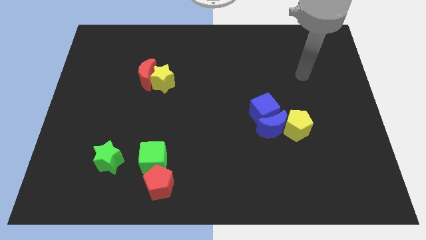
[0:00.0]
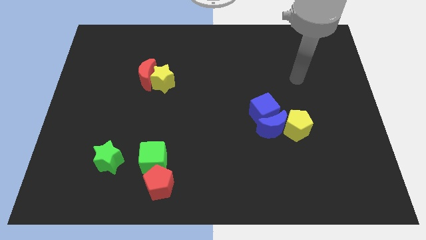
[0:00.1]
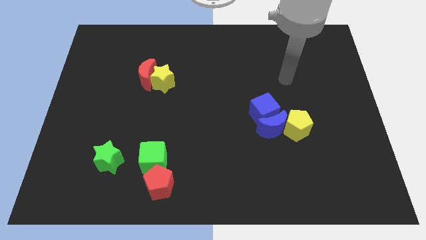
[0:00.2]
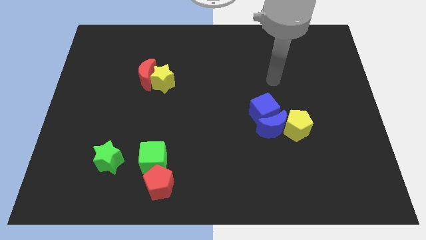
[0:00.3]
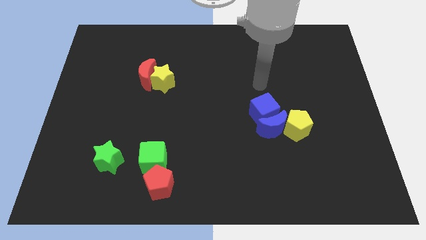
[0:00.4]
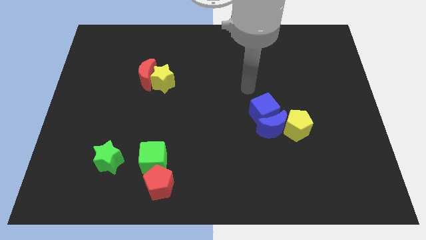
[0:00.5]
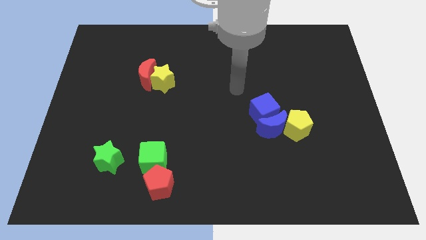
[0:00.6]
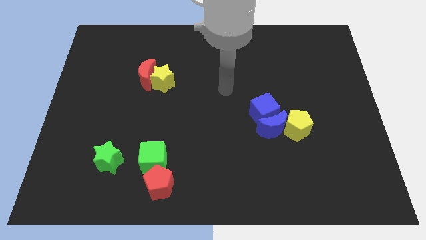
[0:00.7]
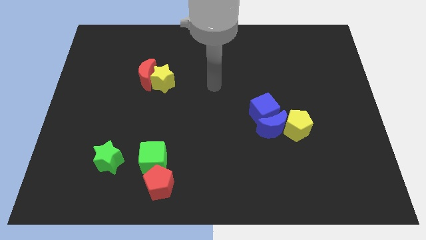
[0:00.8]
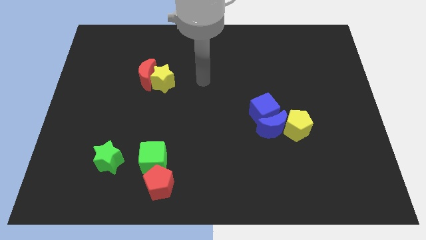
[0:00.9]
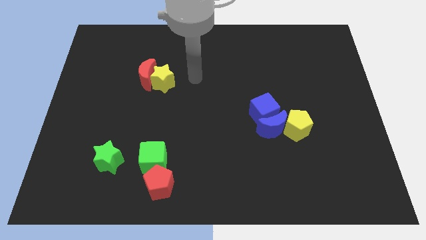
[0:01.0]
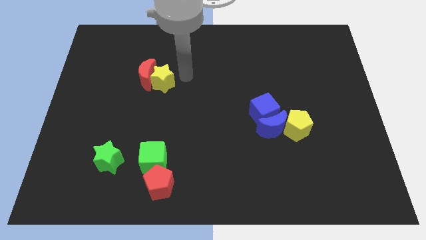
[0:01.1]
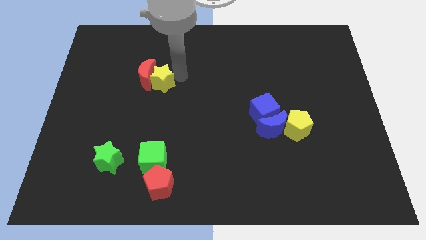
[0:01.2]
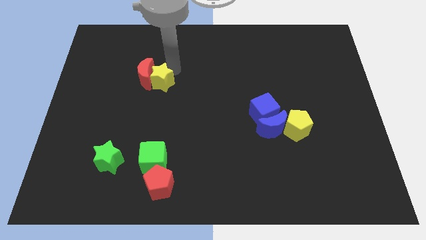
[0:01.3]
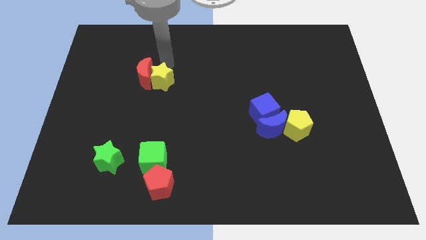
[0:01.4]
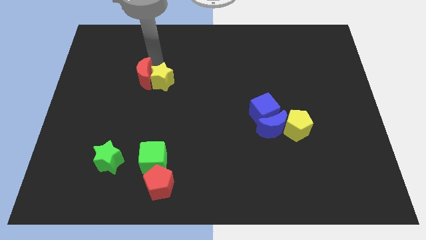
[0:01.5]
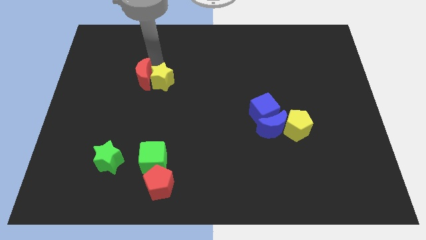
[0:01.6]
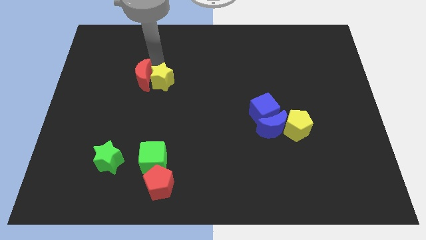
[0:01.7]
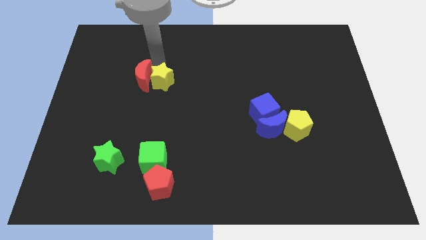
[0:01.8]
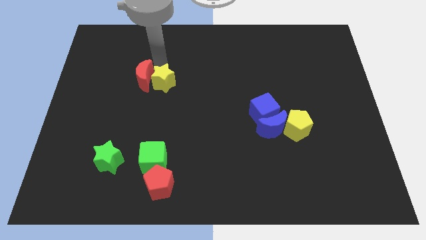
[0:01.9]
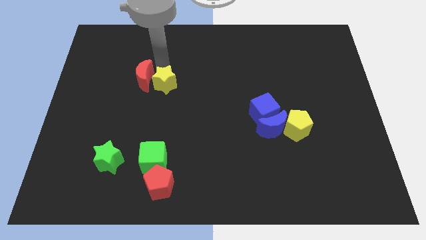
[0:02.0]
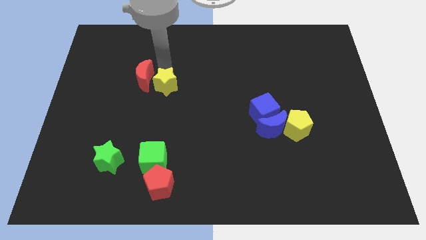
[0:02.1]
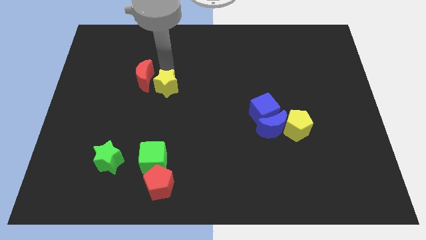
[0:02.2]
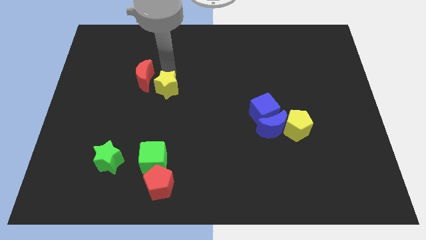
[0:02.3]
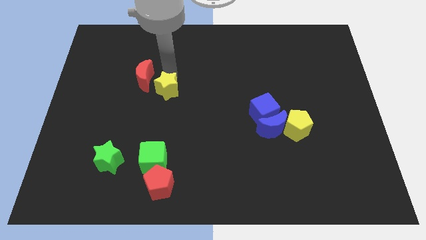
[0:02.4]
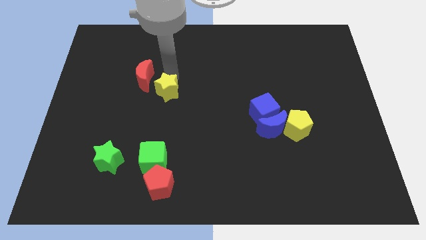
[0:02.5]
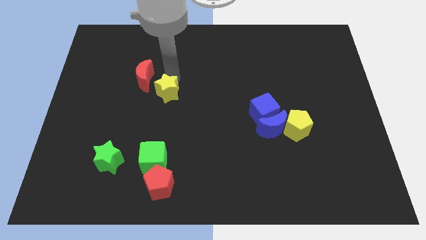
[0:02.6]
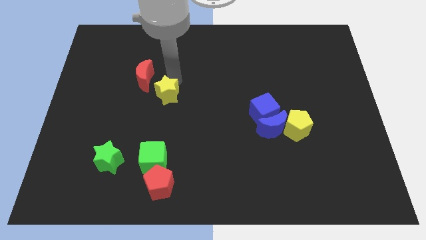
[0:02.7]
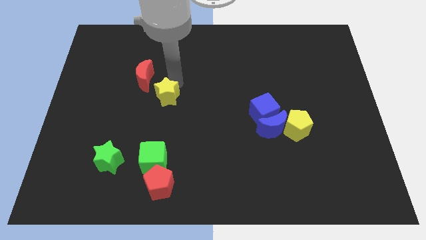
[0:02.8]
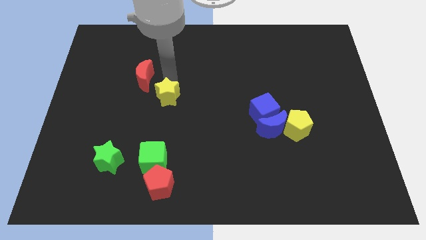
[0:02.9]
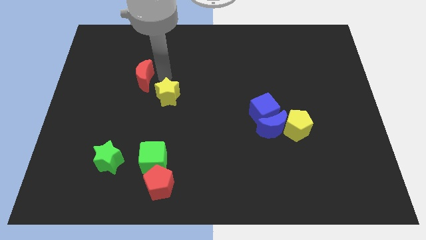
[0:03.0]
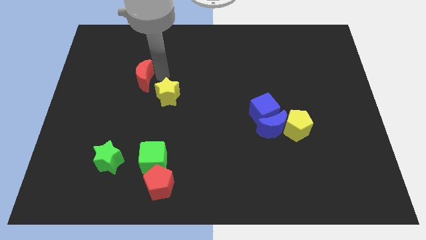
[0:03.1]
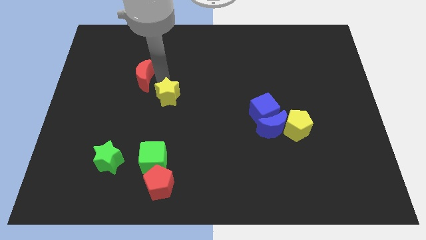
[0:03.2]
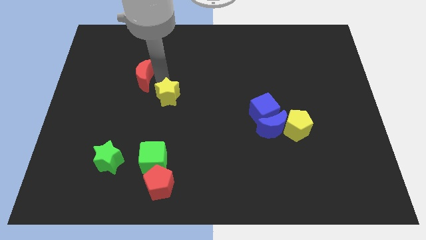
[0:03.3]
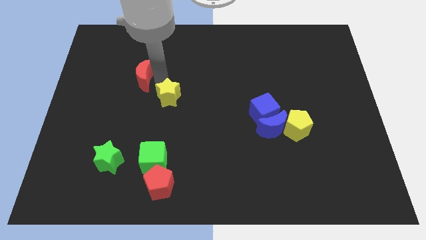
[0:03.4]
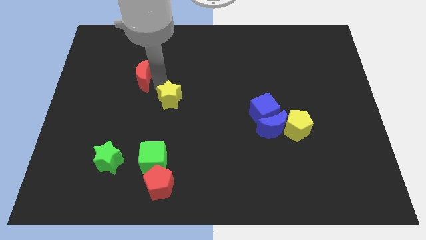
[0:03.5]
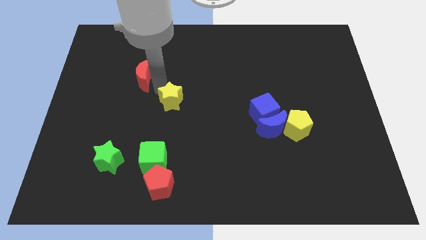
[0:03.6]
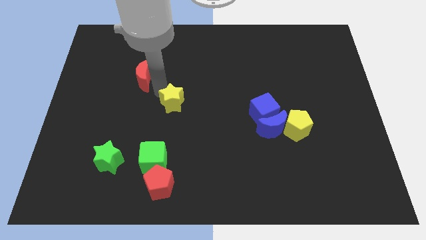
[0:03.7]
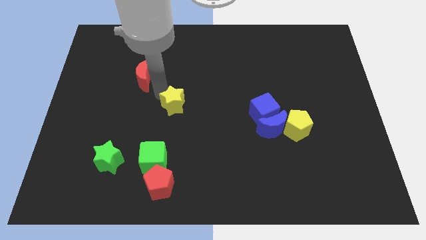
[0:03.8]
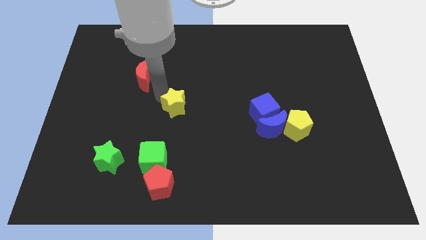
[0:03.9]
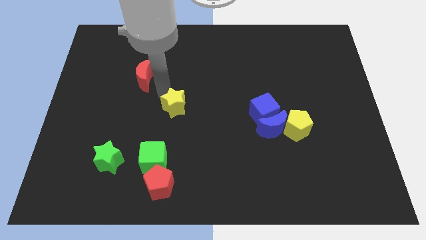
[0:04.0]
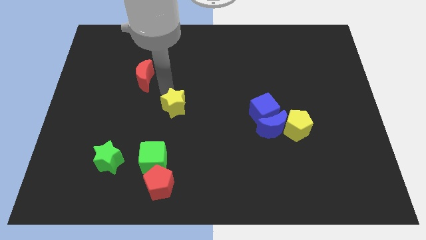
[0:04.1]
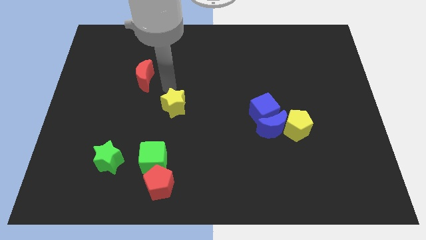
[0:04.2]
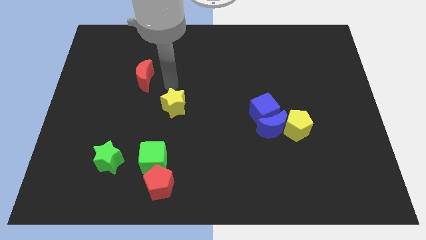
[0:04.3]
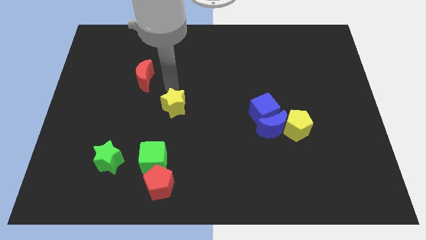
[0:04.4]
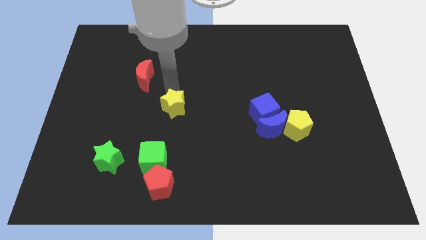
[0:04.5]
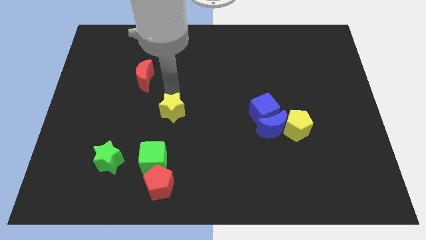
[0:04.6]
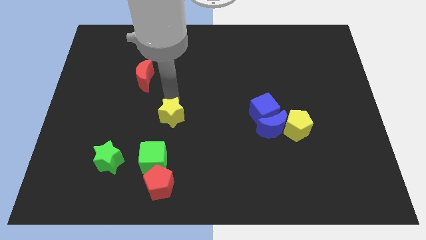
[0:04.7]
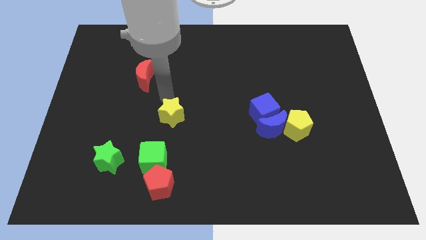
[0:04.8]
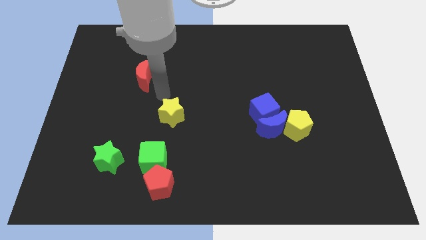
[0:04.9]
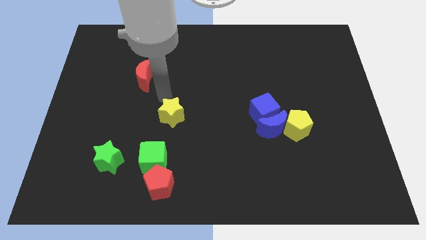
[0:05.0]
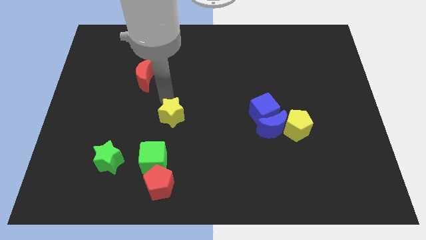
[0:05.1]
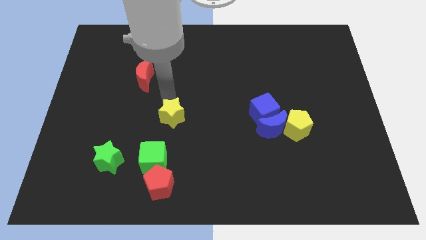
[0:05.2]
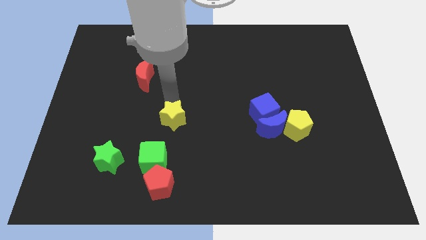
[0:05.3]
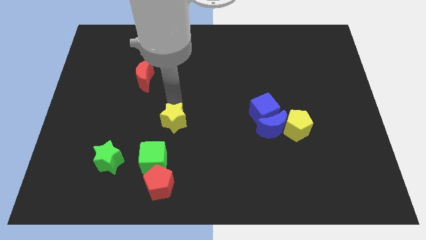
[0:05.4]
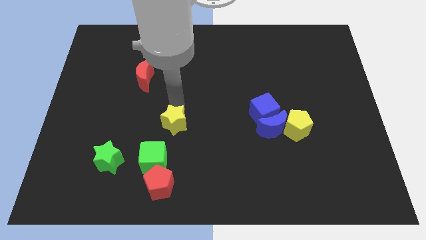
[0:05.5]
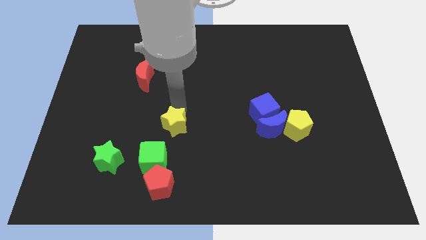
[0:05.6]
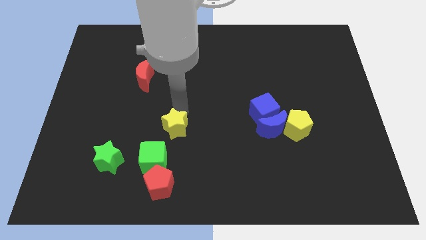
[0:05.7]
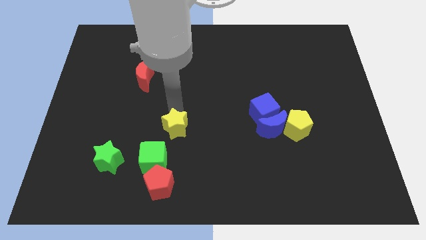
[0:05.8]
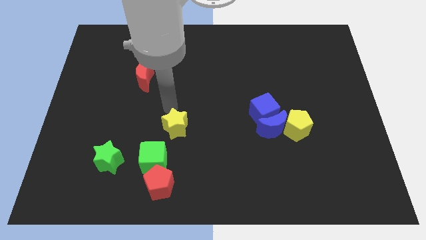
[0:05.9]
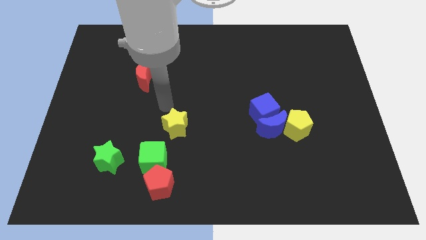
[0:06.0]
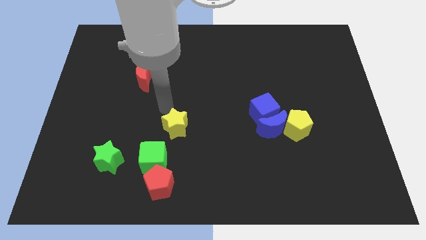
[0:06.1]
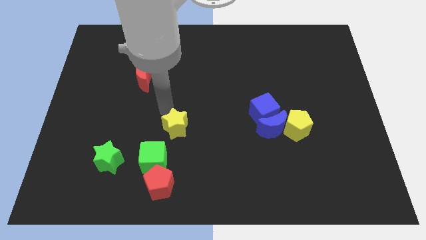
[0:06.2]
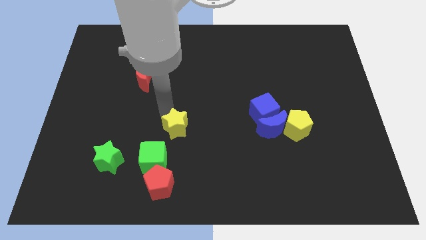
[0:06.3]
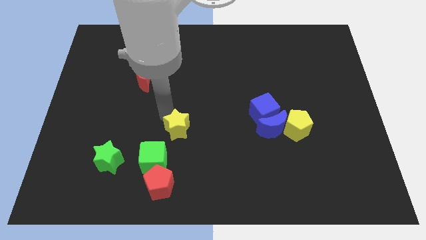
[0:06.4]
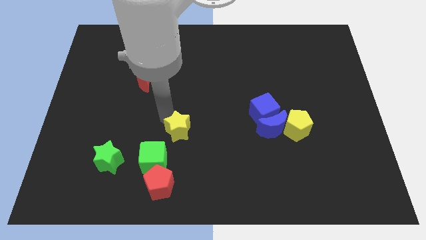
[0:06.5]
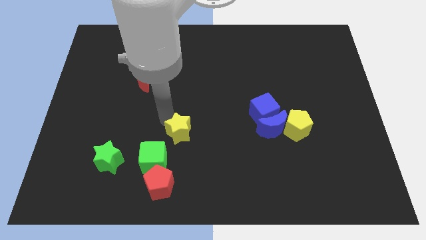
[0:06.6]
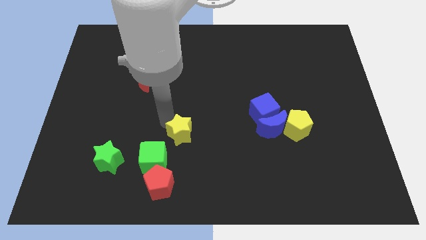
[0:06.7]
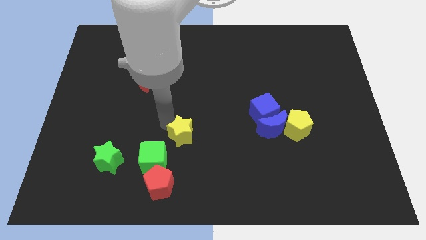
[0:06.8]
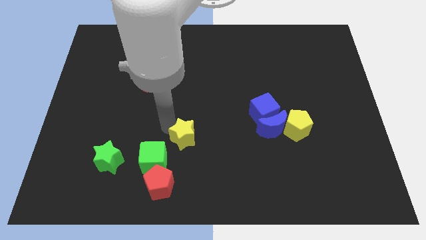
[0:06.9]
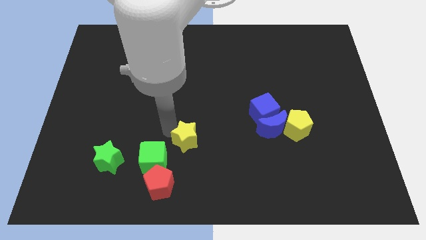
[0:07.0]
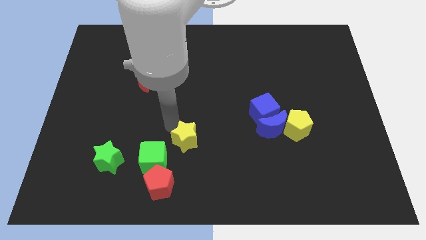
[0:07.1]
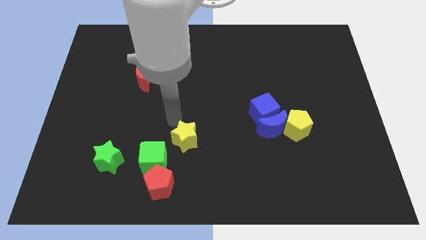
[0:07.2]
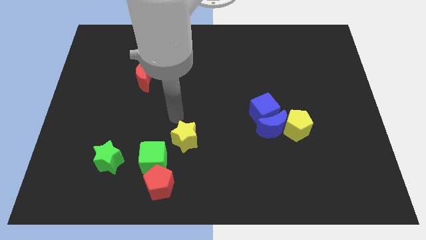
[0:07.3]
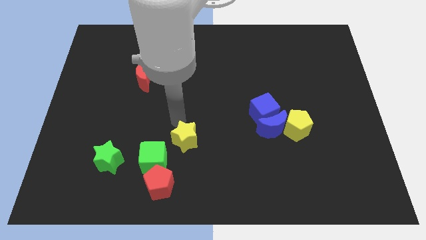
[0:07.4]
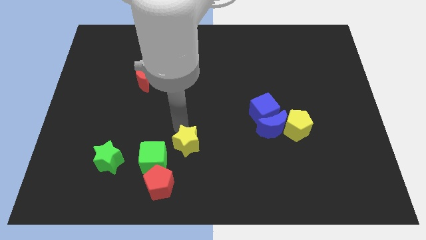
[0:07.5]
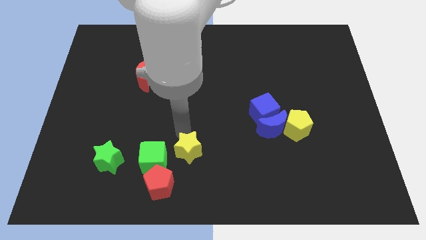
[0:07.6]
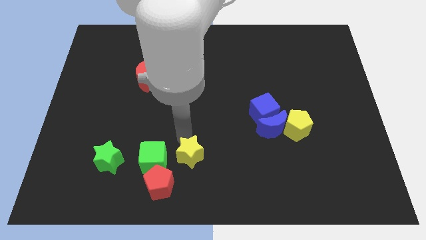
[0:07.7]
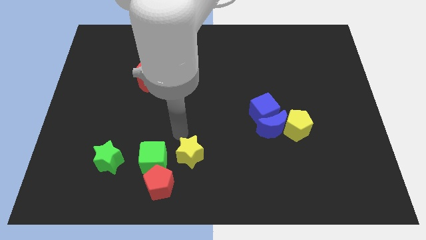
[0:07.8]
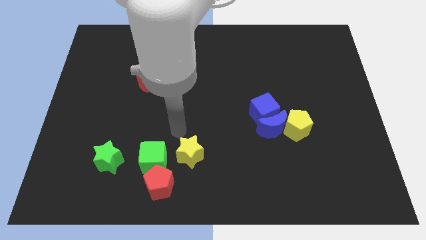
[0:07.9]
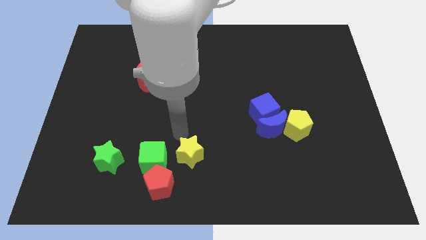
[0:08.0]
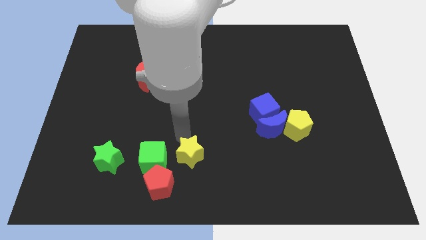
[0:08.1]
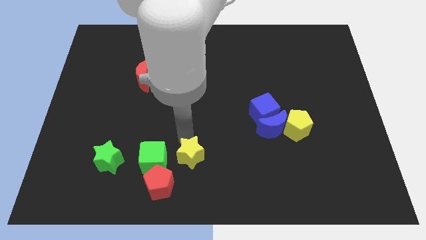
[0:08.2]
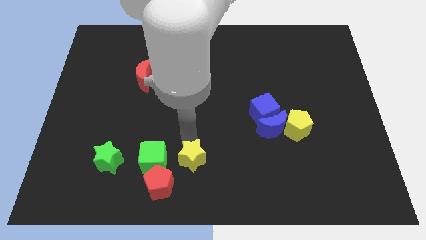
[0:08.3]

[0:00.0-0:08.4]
move the yellow star to the bottom side
